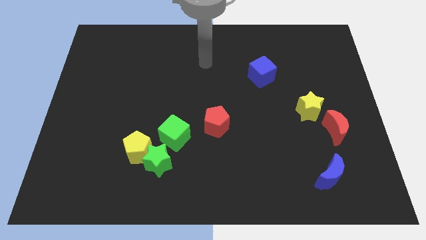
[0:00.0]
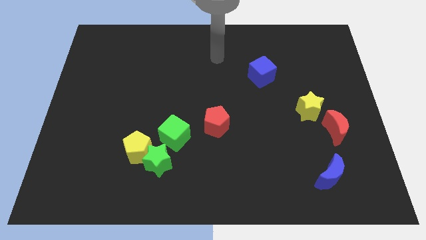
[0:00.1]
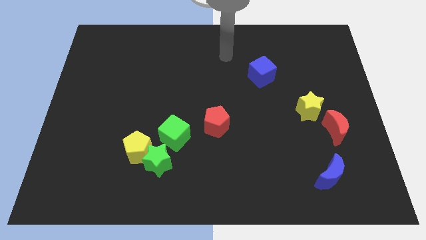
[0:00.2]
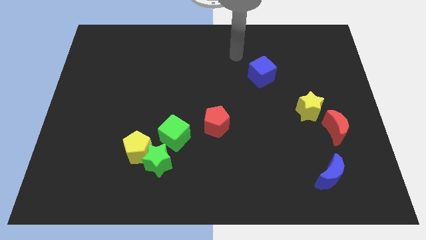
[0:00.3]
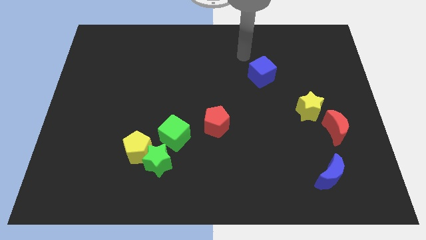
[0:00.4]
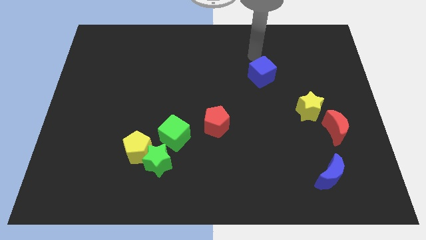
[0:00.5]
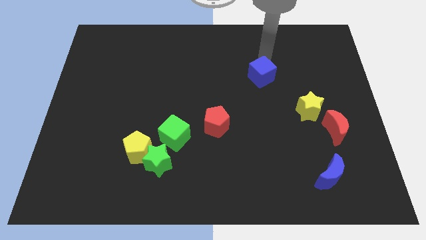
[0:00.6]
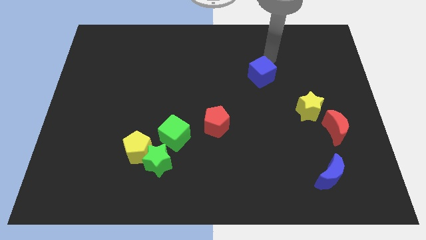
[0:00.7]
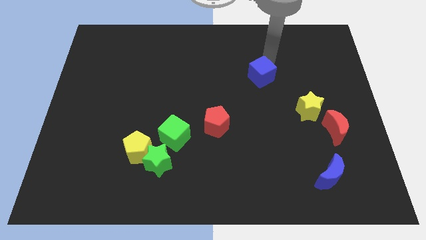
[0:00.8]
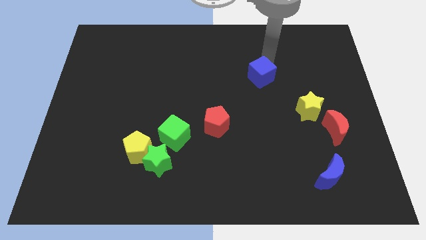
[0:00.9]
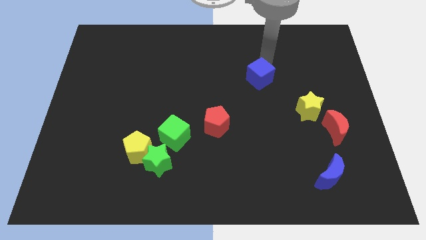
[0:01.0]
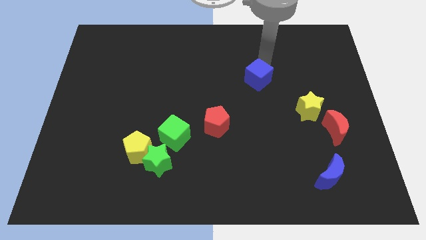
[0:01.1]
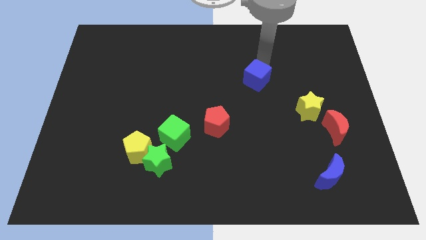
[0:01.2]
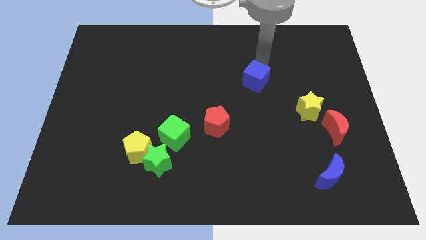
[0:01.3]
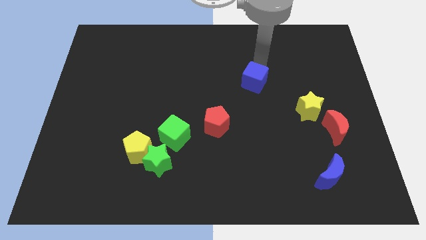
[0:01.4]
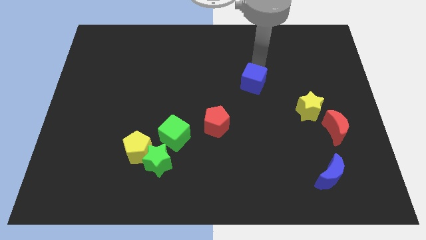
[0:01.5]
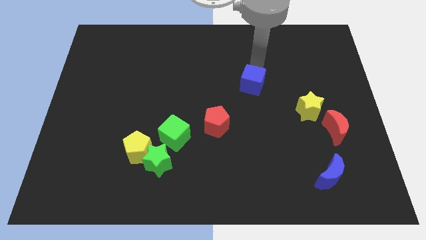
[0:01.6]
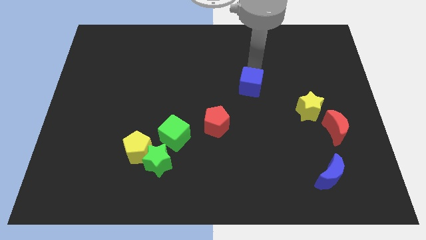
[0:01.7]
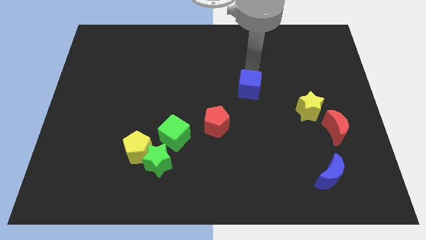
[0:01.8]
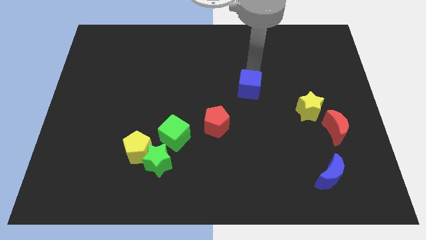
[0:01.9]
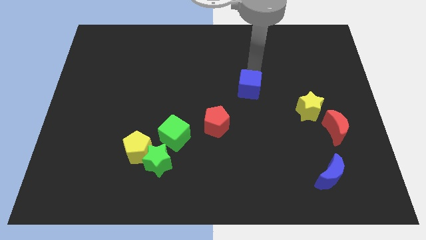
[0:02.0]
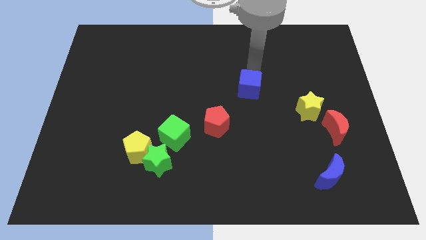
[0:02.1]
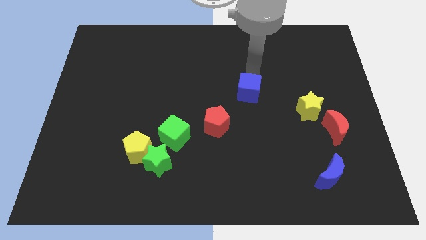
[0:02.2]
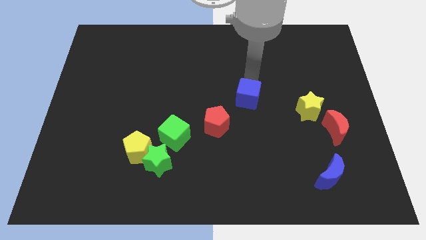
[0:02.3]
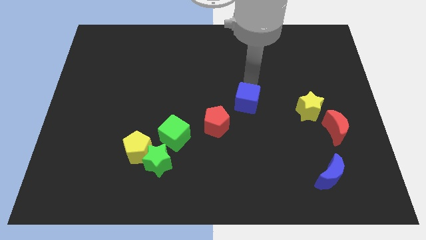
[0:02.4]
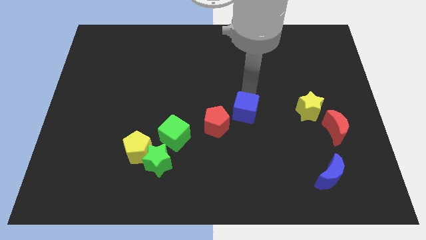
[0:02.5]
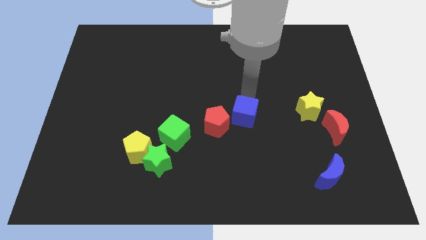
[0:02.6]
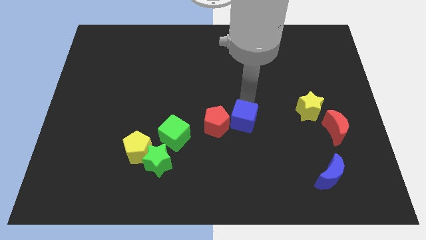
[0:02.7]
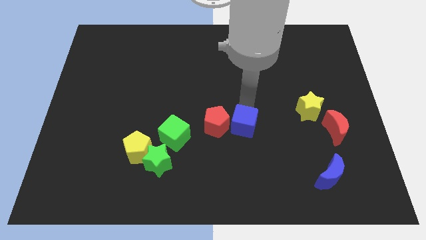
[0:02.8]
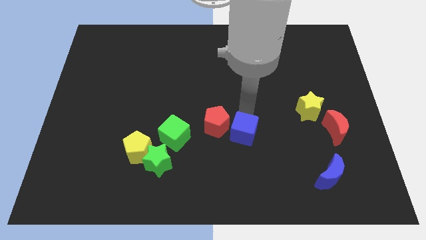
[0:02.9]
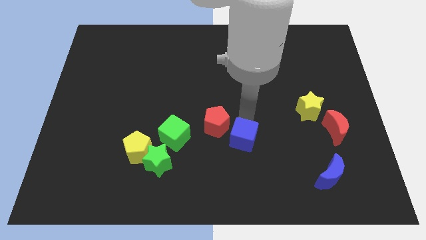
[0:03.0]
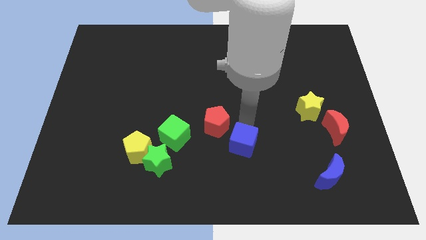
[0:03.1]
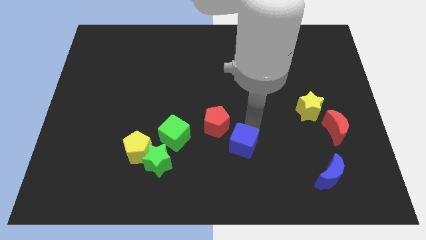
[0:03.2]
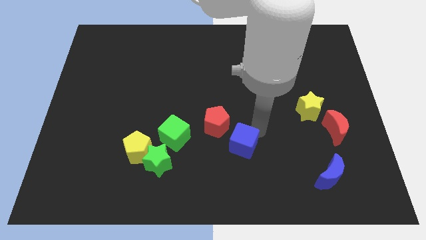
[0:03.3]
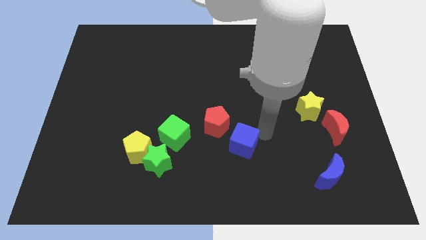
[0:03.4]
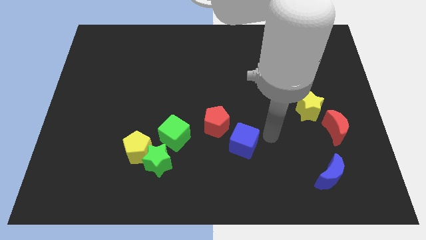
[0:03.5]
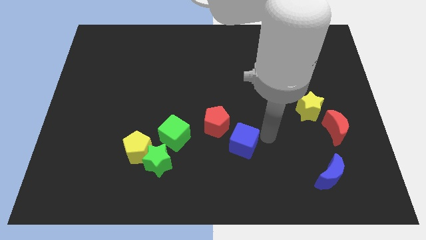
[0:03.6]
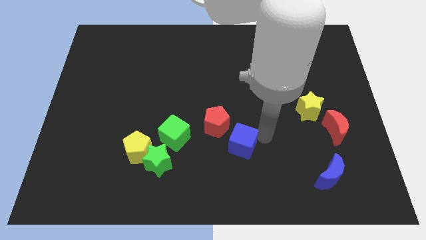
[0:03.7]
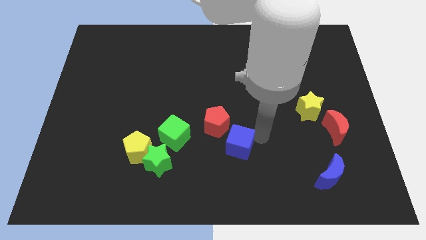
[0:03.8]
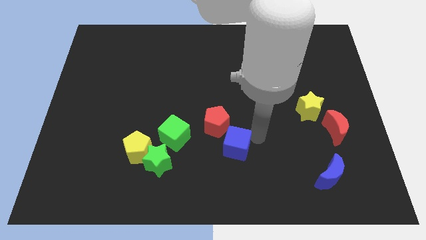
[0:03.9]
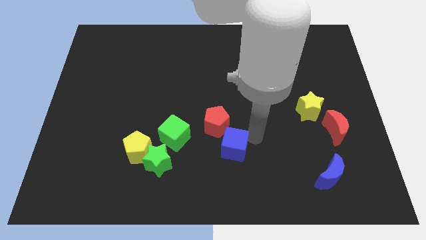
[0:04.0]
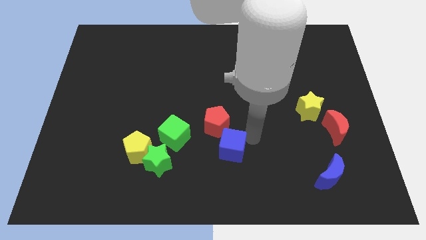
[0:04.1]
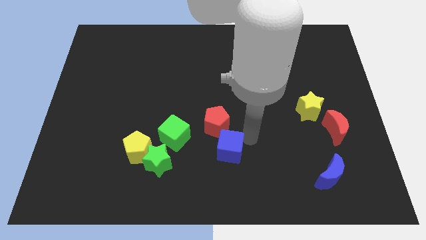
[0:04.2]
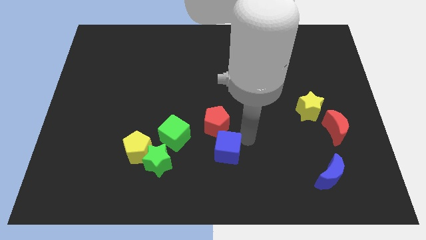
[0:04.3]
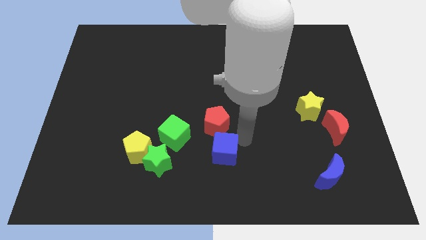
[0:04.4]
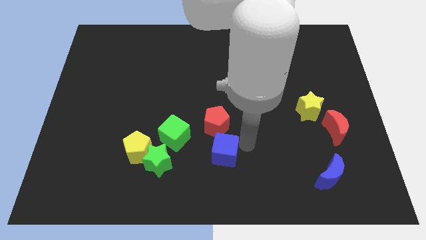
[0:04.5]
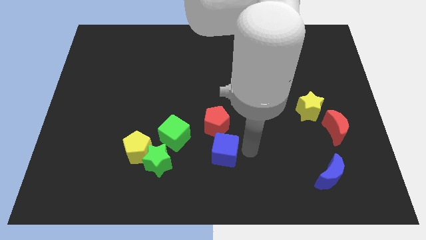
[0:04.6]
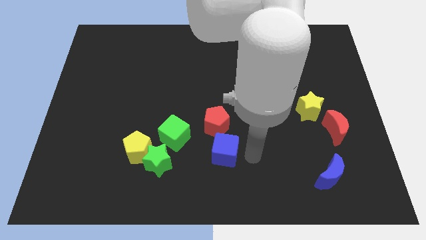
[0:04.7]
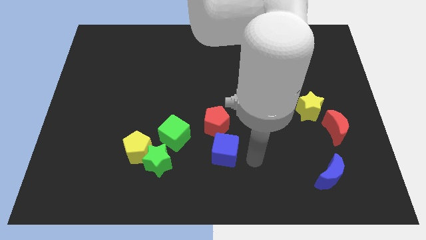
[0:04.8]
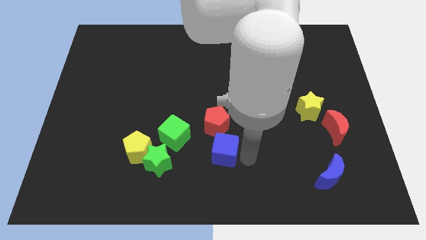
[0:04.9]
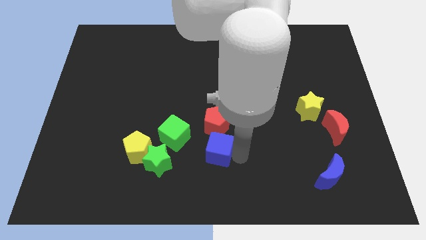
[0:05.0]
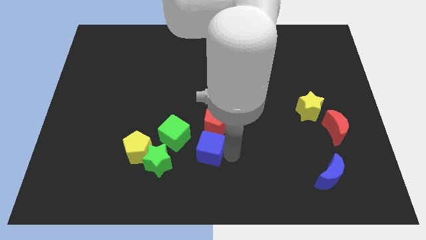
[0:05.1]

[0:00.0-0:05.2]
slide the blue cube to the bottom left side of the red pentagon

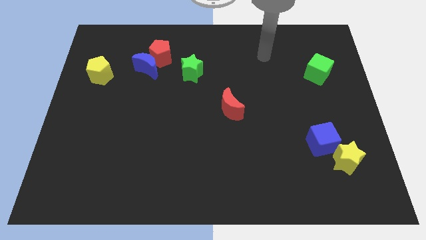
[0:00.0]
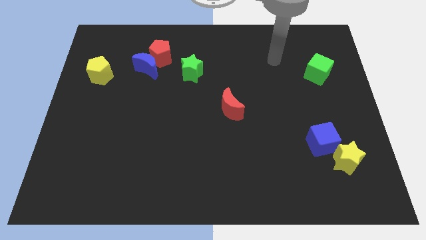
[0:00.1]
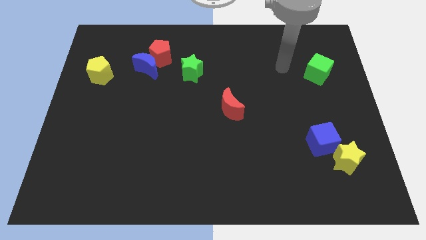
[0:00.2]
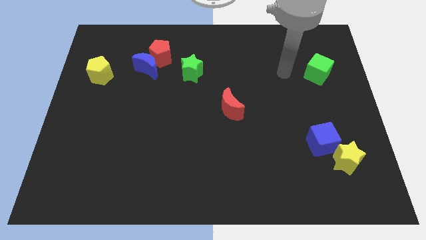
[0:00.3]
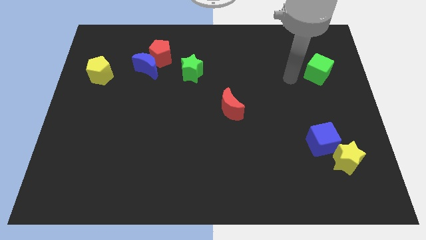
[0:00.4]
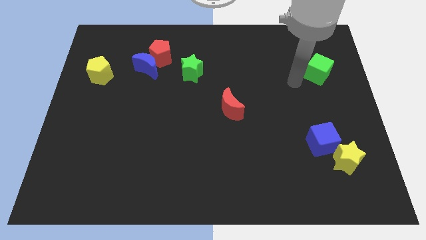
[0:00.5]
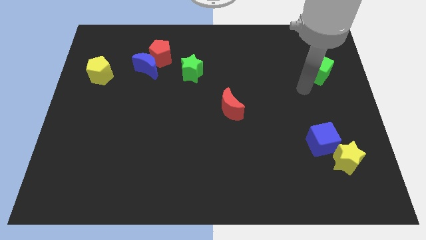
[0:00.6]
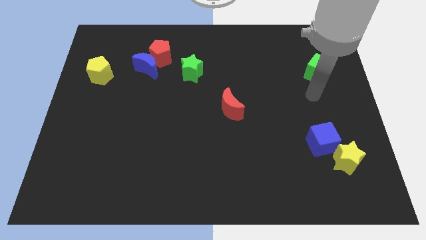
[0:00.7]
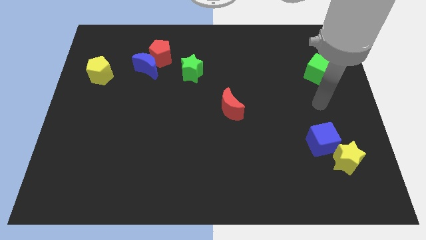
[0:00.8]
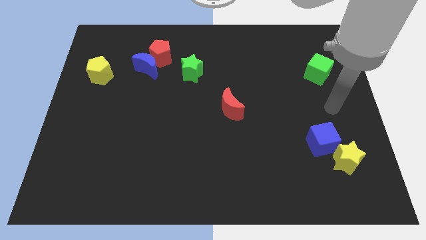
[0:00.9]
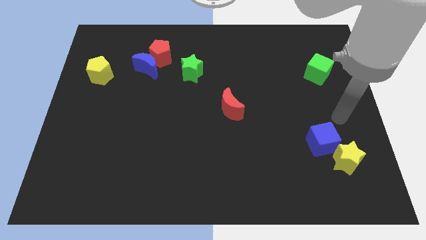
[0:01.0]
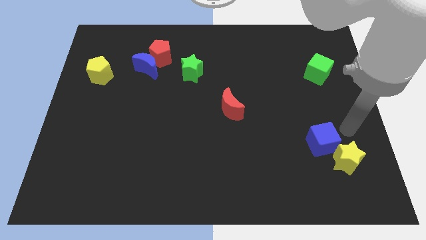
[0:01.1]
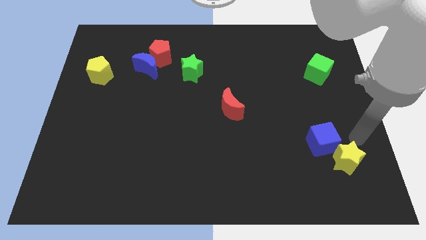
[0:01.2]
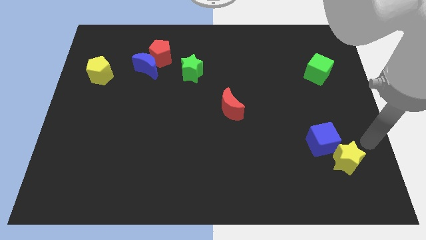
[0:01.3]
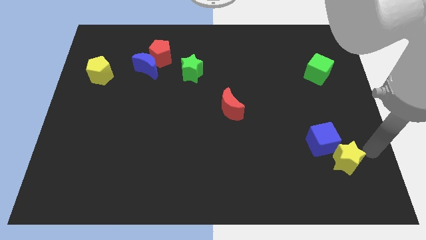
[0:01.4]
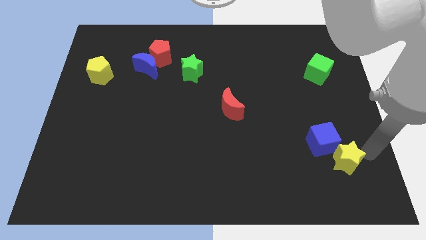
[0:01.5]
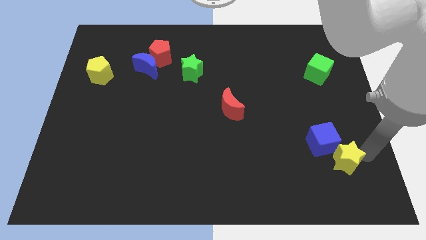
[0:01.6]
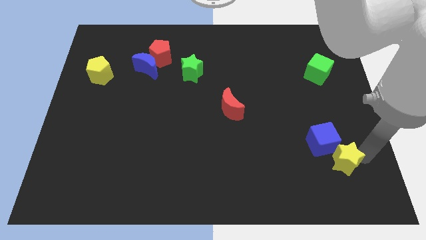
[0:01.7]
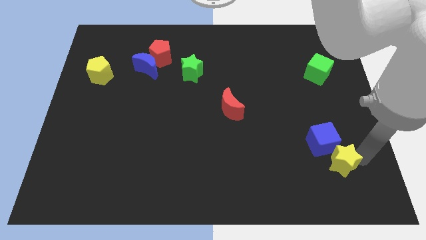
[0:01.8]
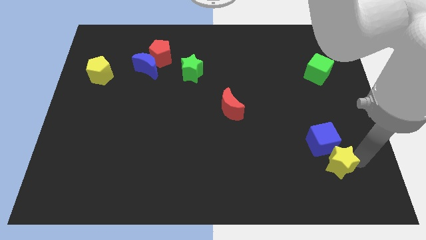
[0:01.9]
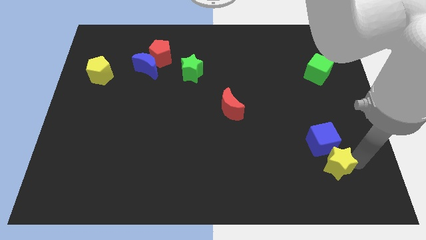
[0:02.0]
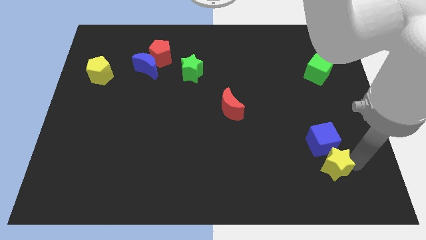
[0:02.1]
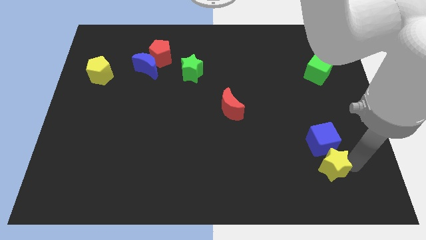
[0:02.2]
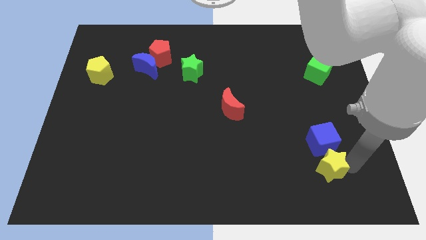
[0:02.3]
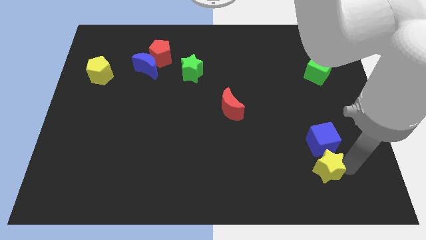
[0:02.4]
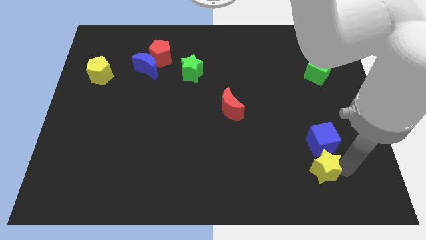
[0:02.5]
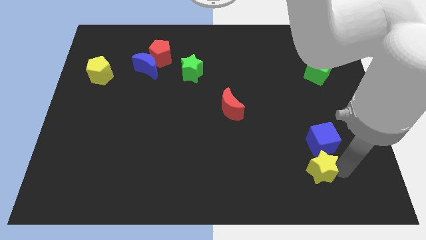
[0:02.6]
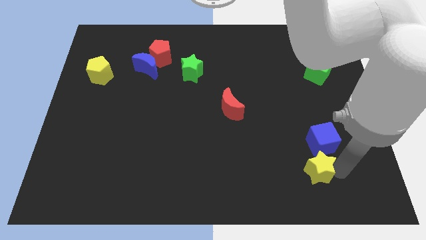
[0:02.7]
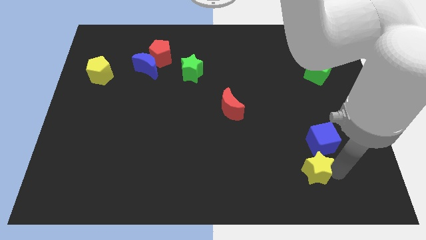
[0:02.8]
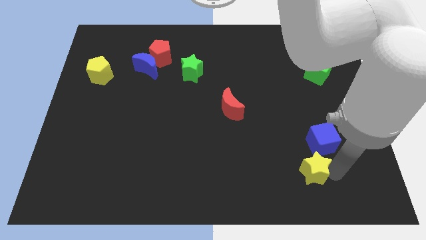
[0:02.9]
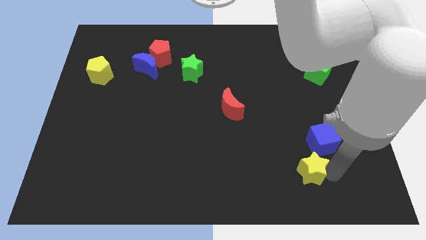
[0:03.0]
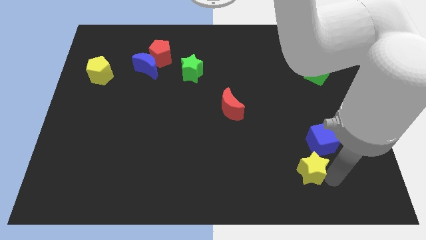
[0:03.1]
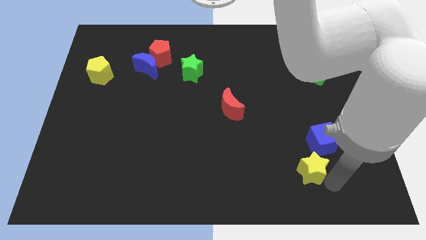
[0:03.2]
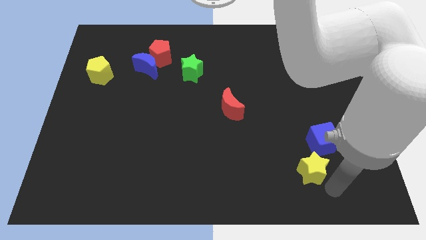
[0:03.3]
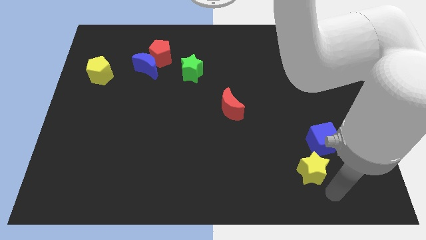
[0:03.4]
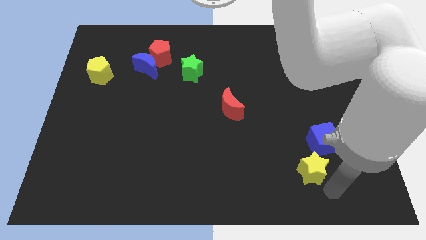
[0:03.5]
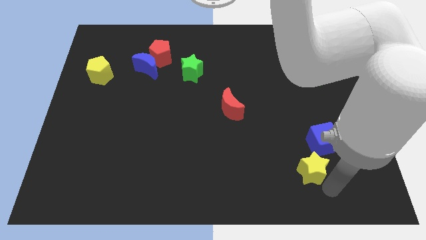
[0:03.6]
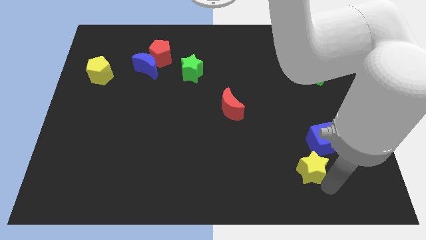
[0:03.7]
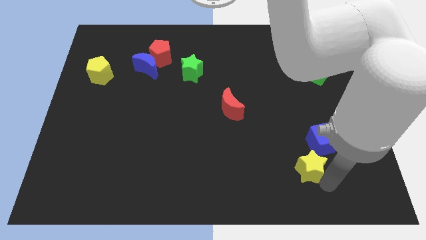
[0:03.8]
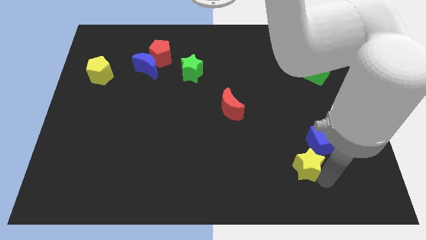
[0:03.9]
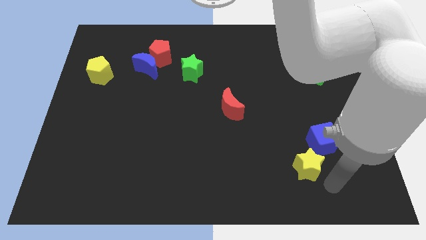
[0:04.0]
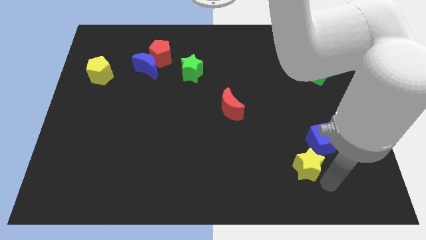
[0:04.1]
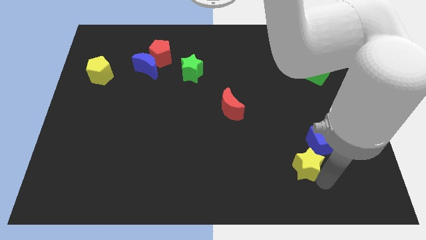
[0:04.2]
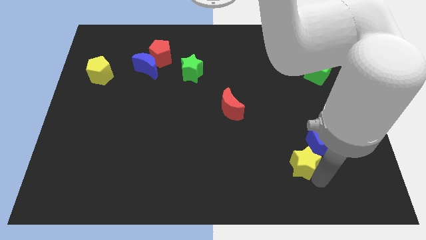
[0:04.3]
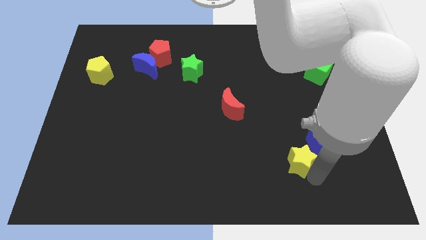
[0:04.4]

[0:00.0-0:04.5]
put the yellow star just left of the blue cube
